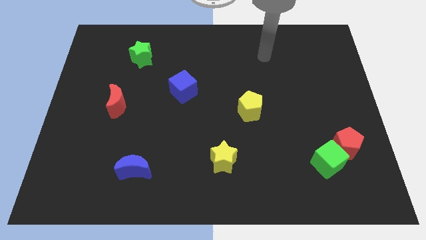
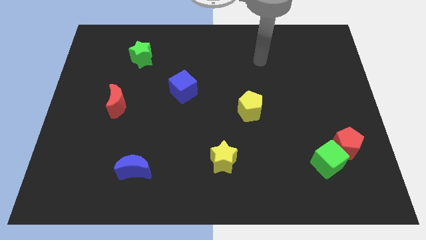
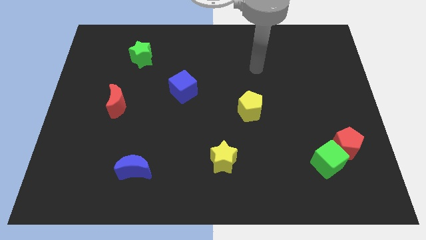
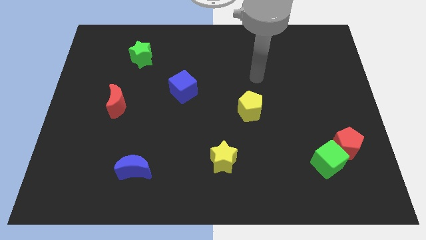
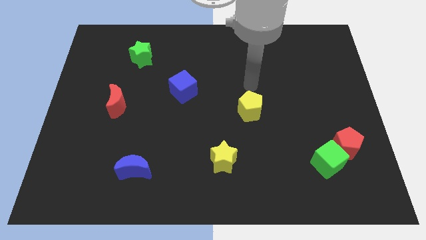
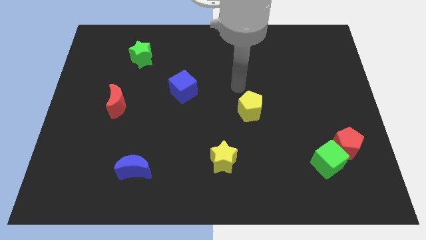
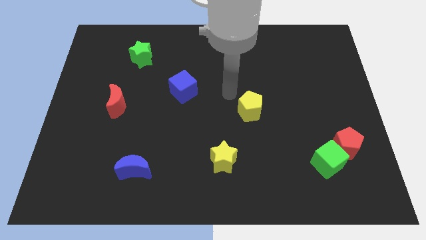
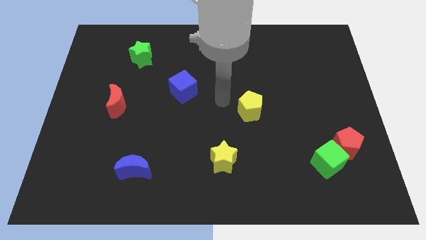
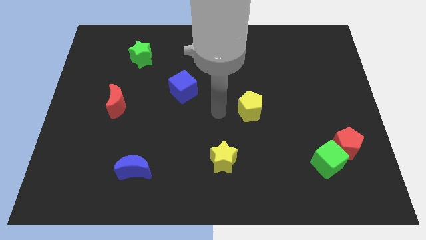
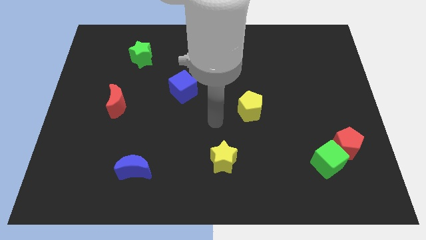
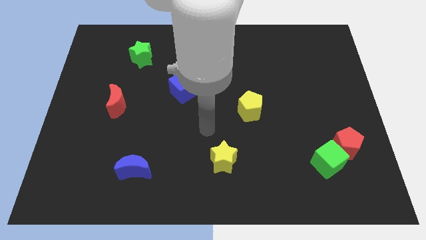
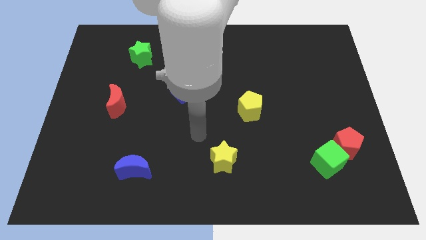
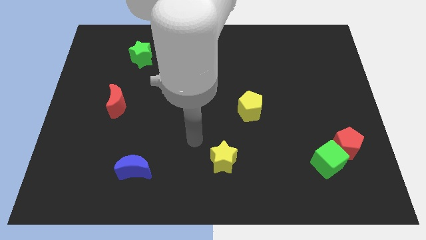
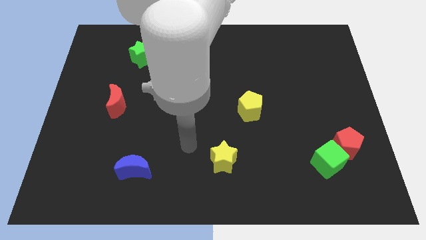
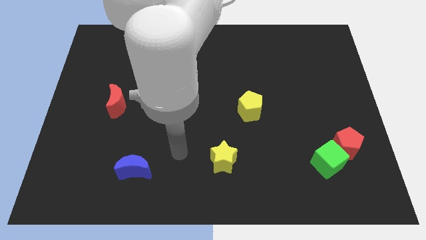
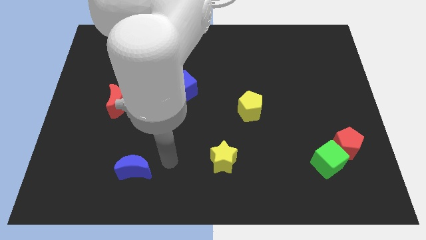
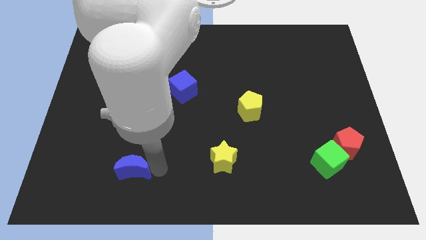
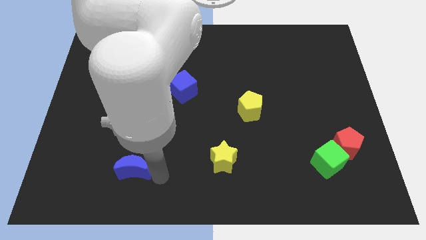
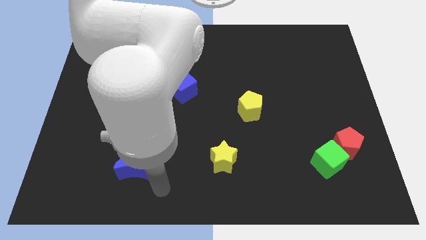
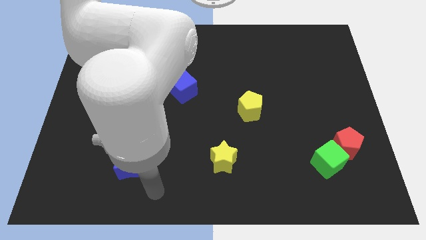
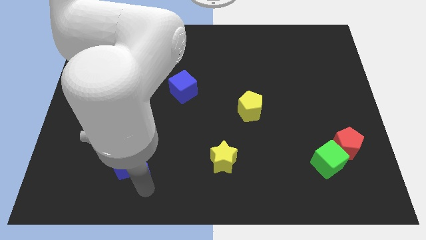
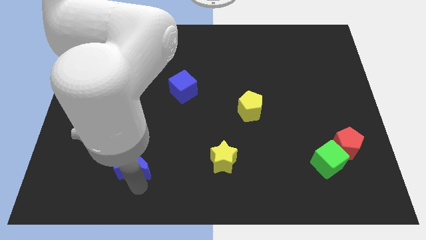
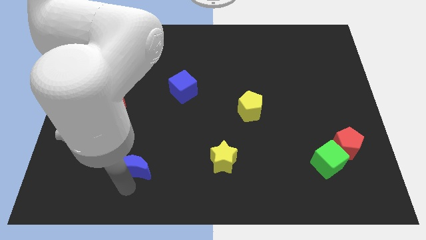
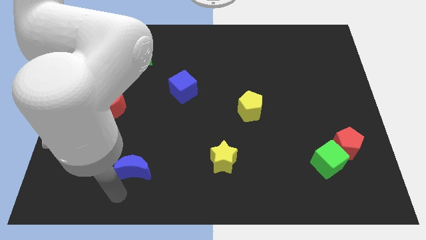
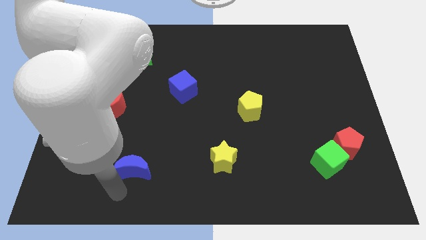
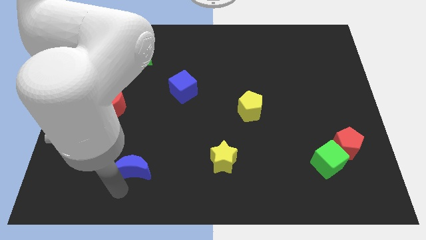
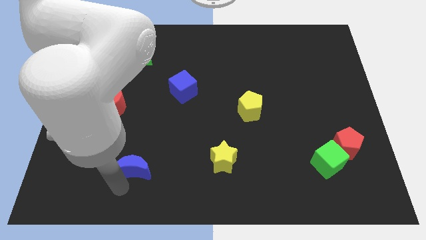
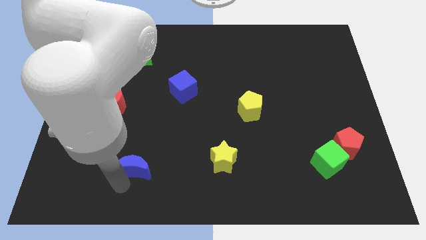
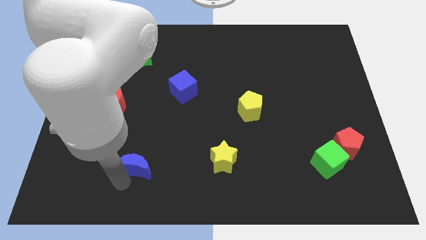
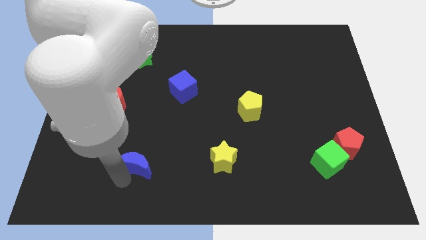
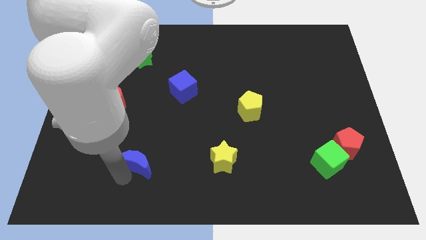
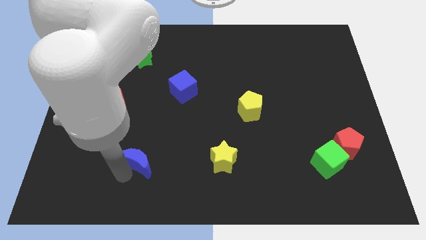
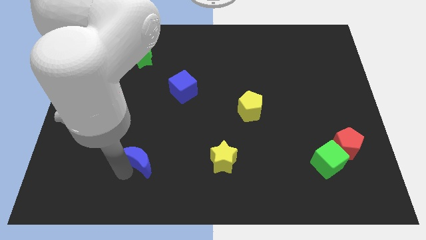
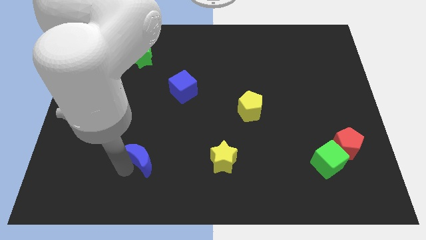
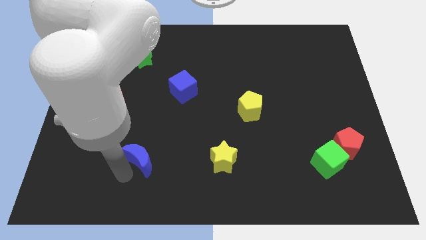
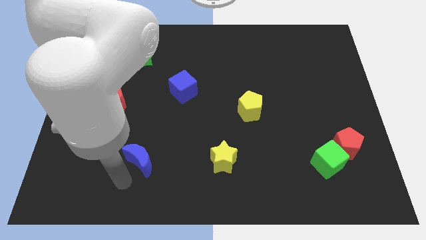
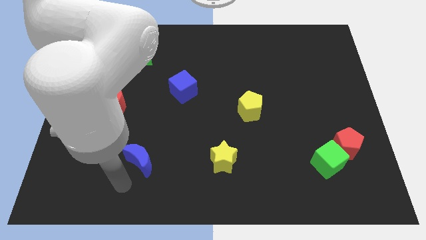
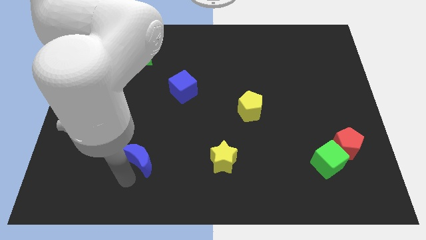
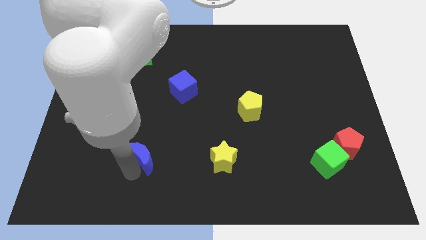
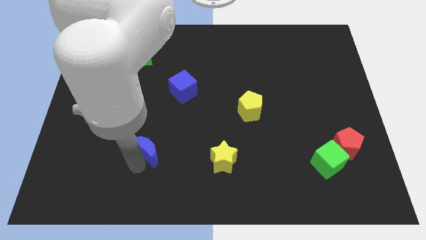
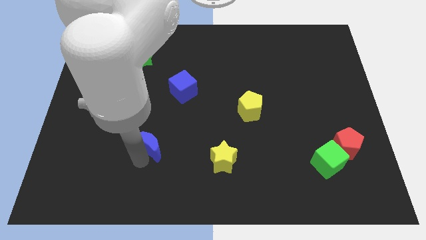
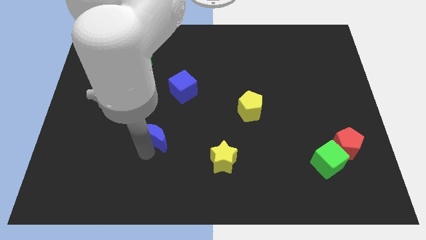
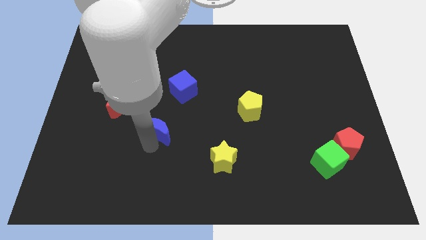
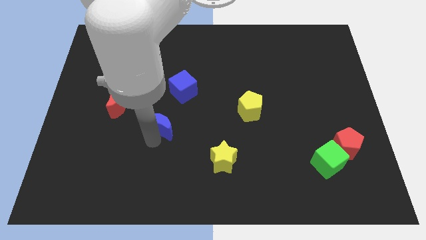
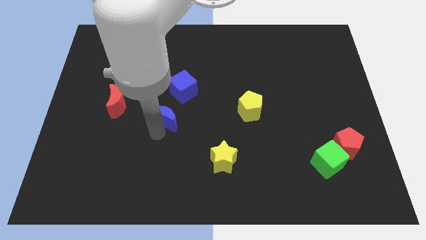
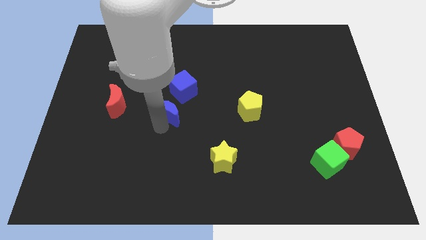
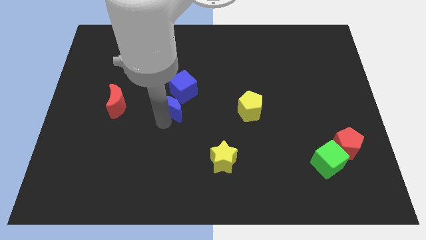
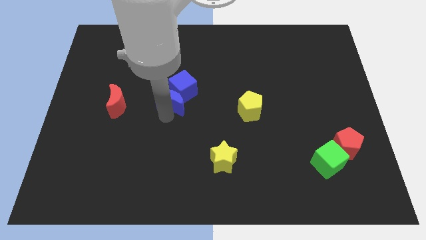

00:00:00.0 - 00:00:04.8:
slide the blue moon towards the blue cube

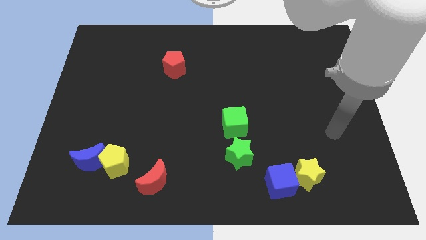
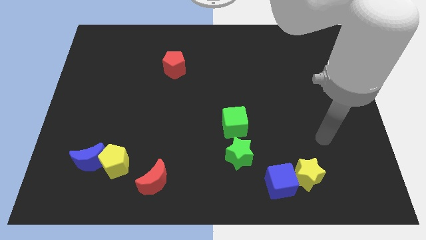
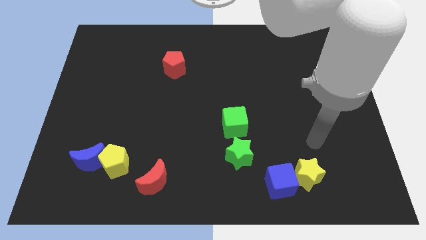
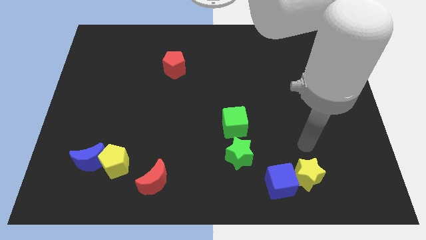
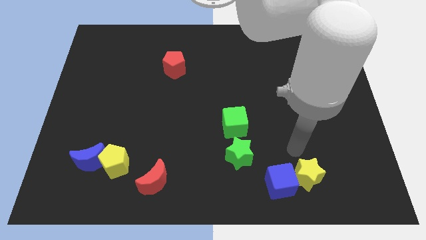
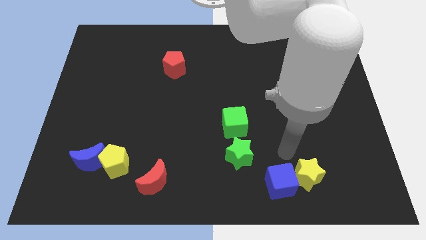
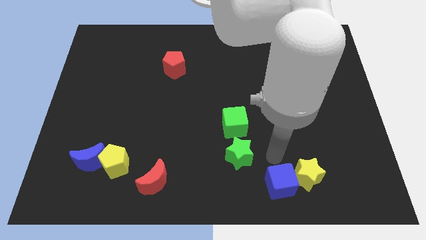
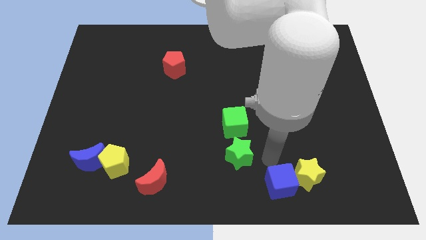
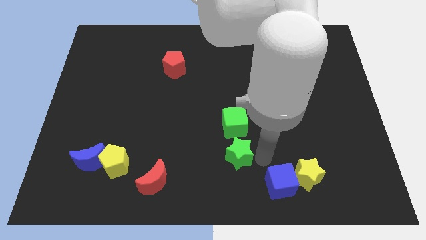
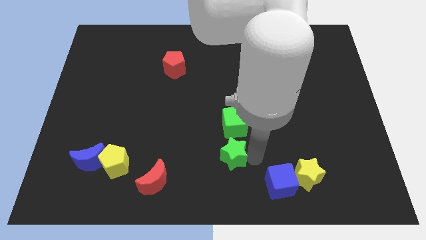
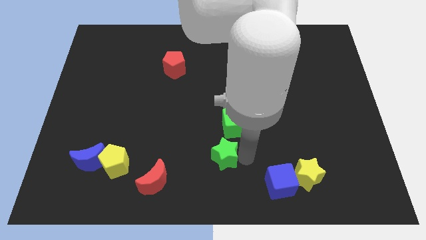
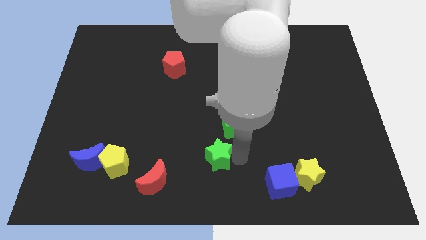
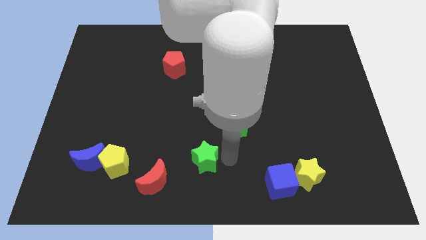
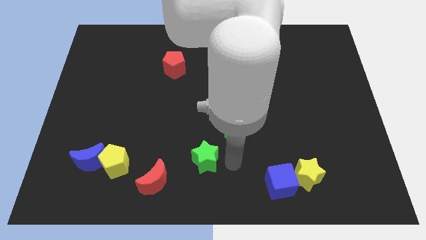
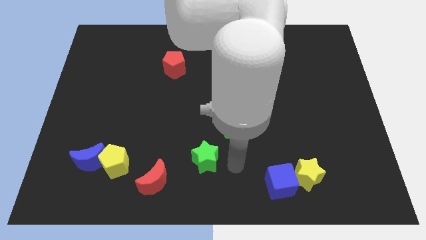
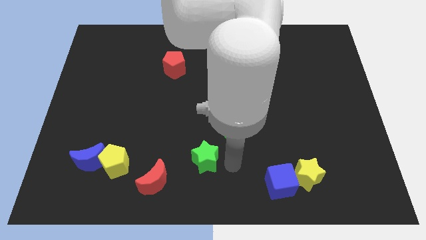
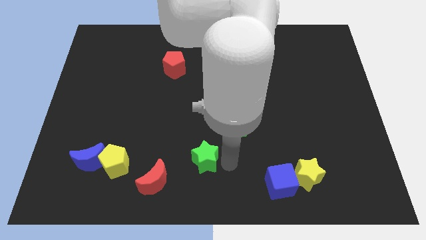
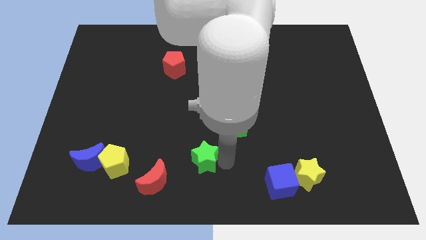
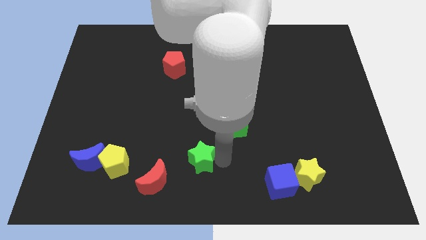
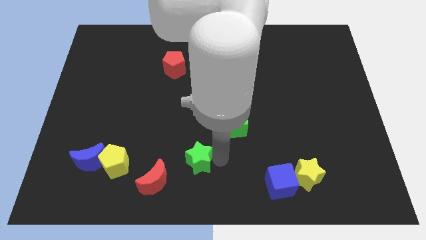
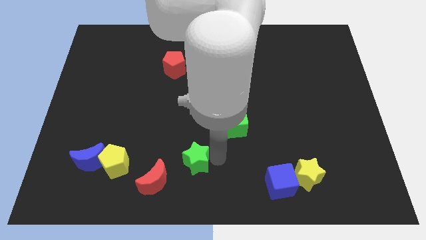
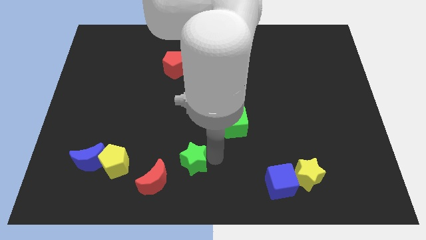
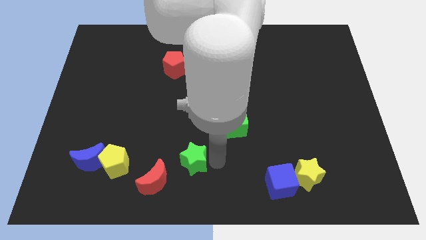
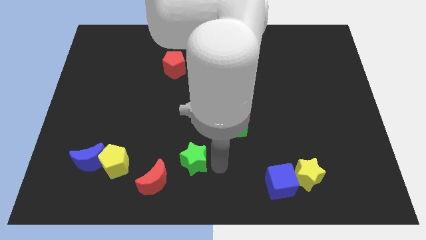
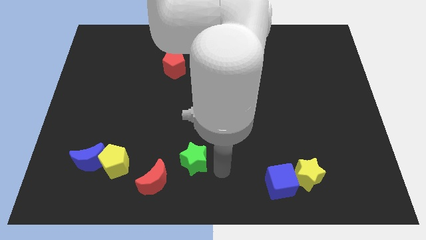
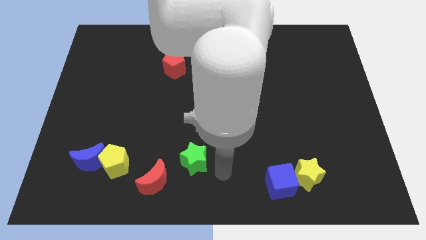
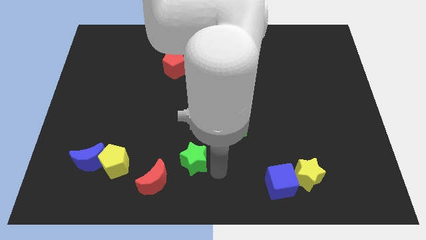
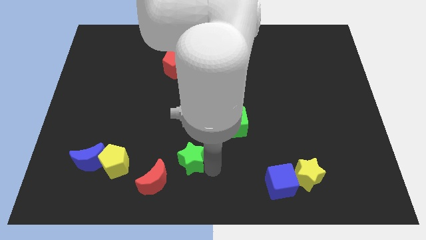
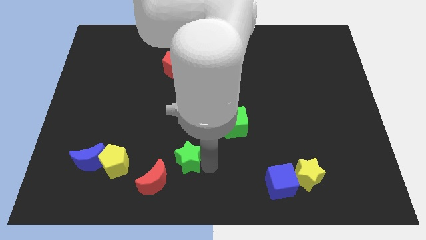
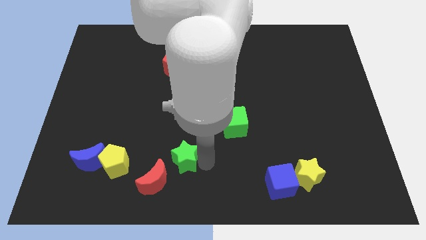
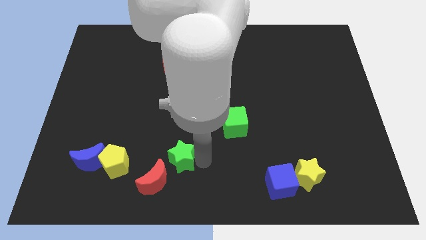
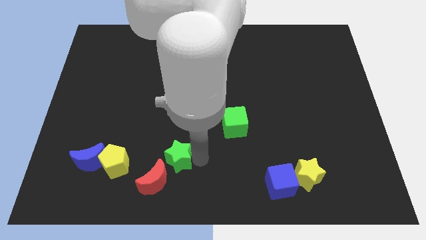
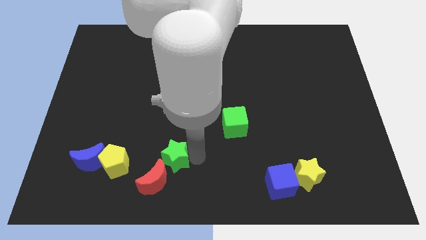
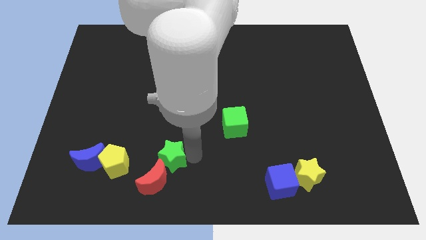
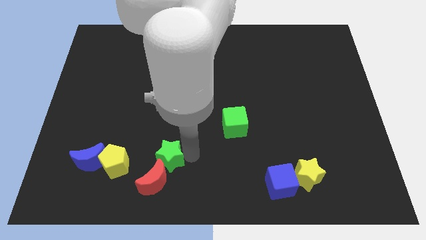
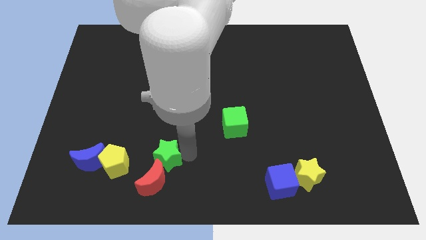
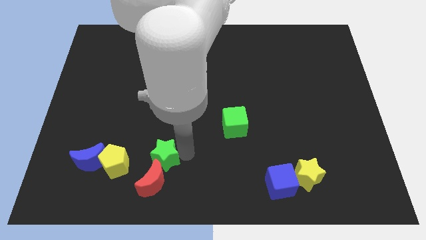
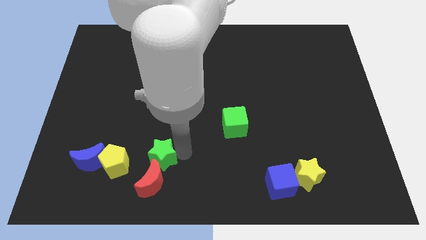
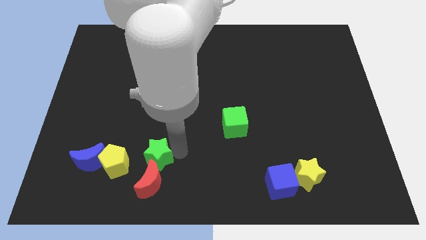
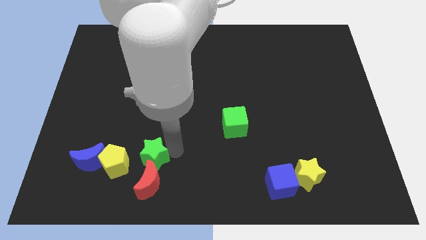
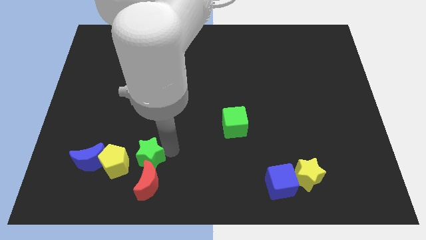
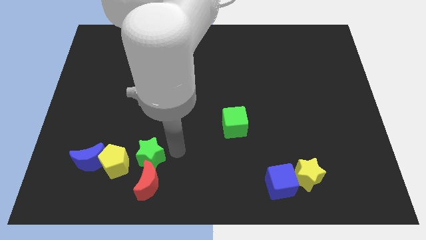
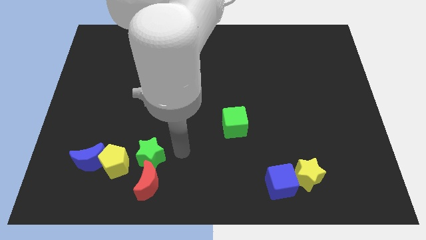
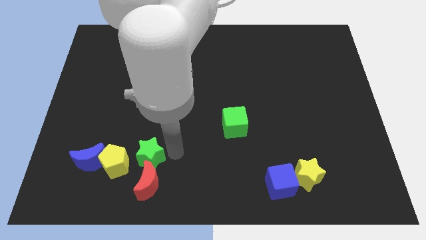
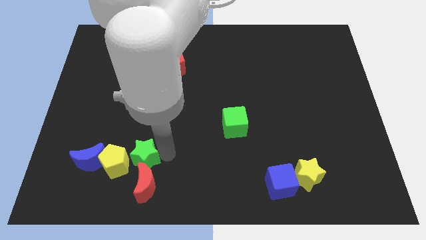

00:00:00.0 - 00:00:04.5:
move the green star towards the yellow pentagon
